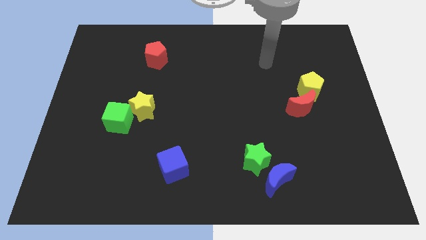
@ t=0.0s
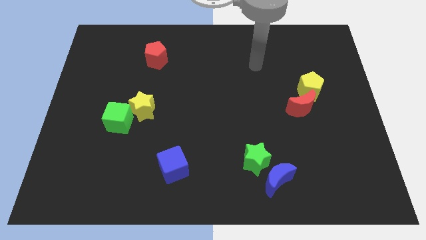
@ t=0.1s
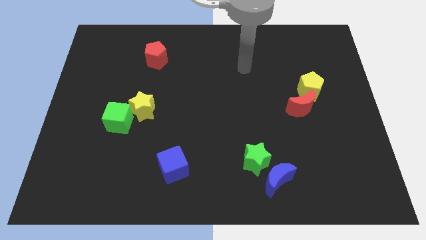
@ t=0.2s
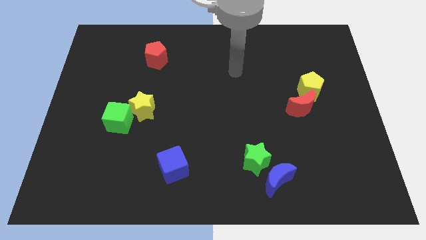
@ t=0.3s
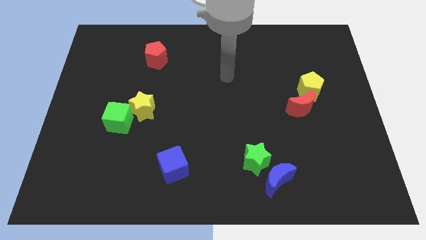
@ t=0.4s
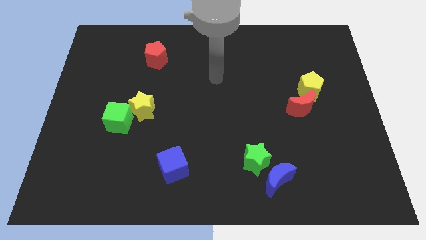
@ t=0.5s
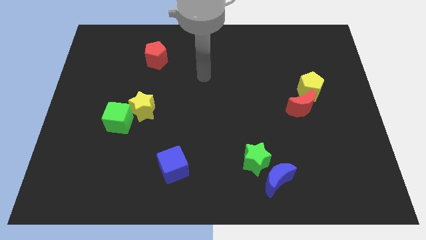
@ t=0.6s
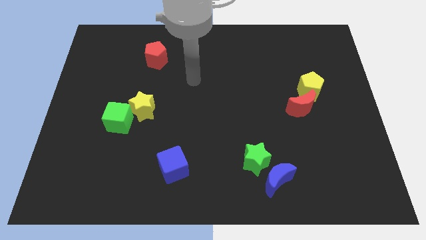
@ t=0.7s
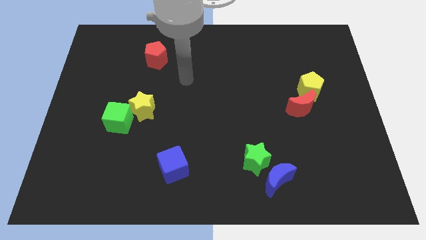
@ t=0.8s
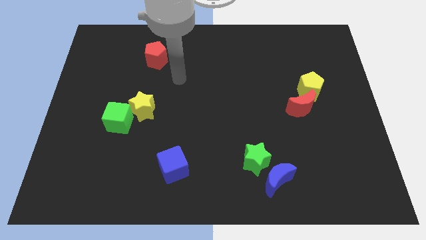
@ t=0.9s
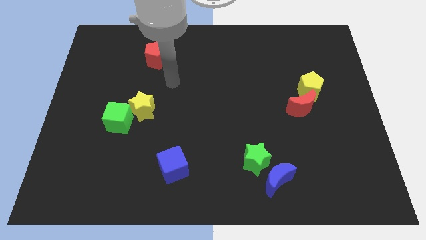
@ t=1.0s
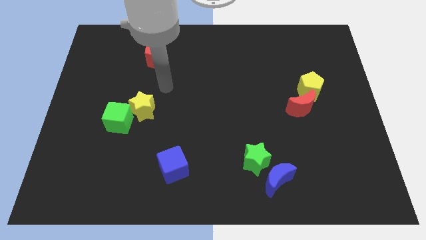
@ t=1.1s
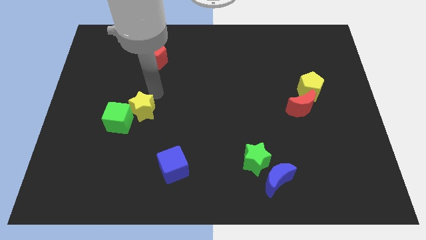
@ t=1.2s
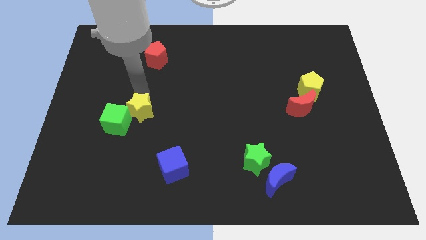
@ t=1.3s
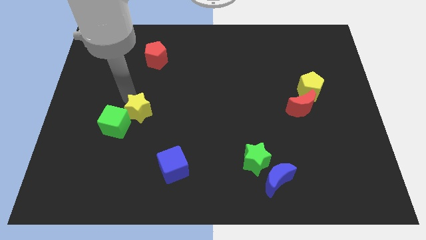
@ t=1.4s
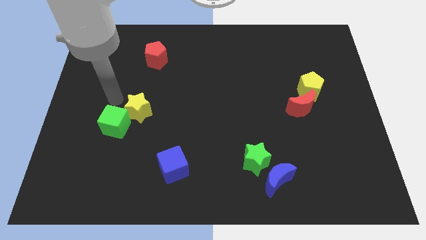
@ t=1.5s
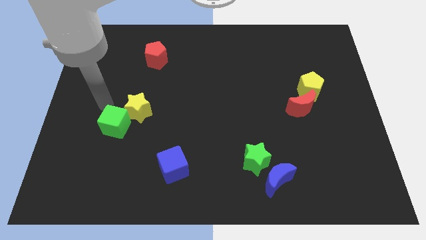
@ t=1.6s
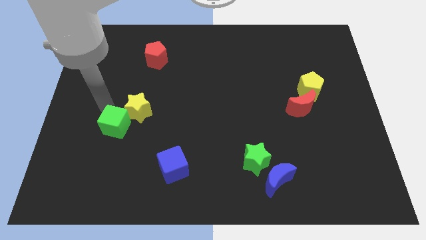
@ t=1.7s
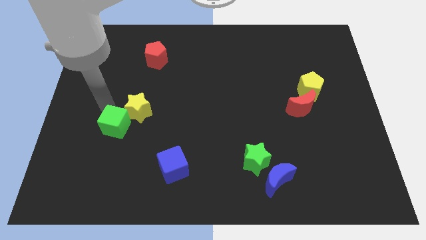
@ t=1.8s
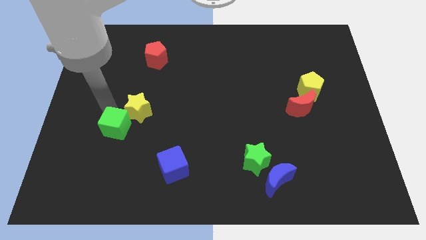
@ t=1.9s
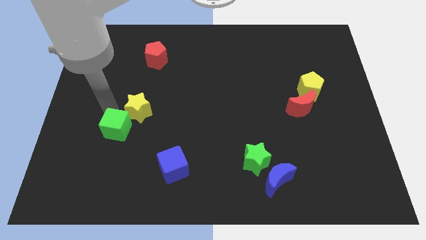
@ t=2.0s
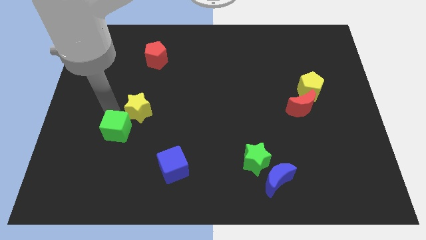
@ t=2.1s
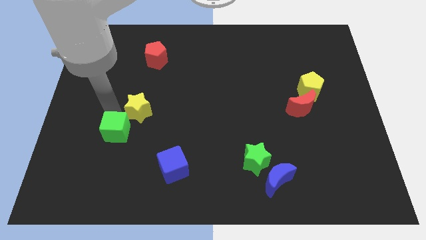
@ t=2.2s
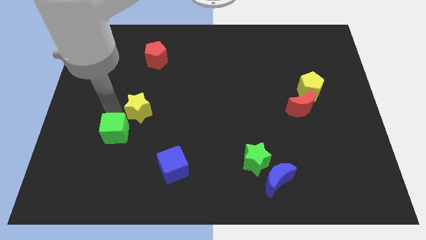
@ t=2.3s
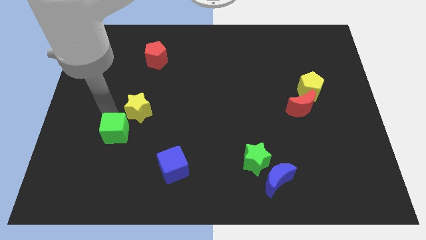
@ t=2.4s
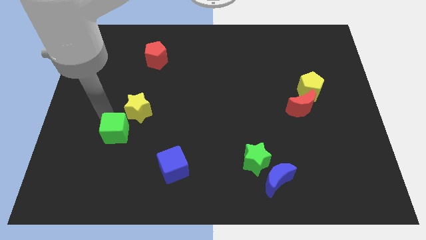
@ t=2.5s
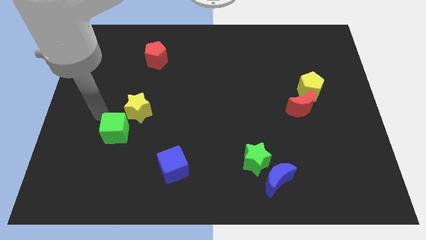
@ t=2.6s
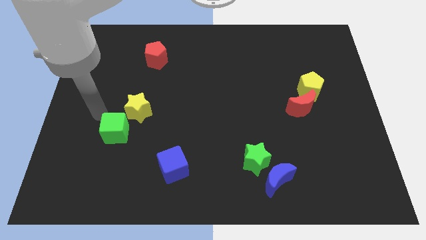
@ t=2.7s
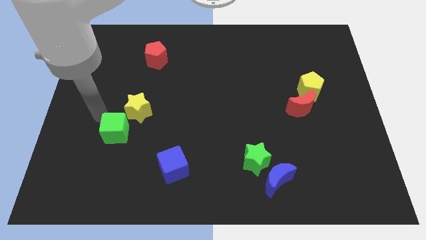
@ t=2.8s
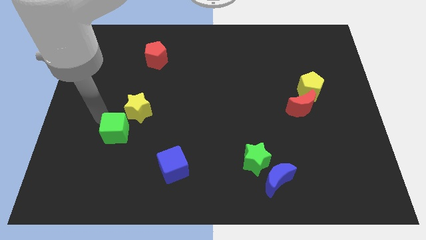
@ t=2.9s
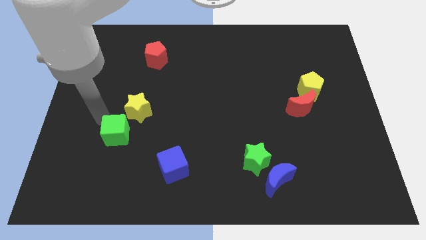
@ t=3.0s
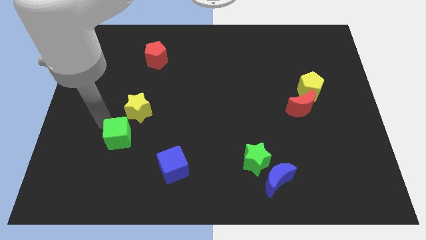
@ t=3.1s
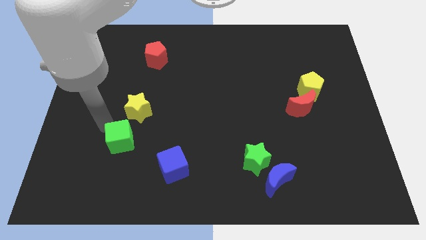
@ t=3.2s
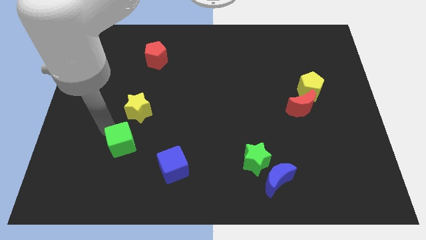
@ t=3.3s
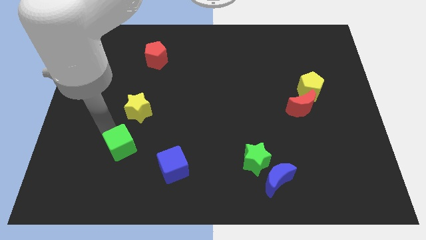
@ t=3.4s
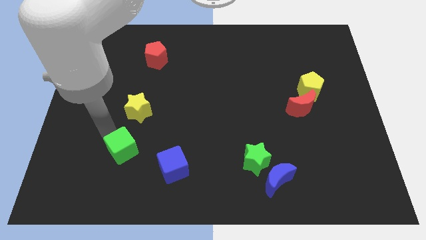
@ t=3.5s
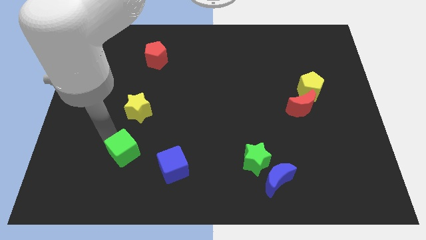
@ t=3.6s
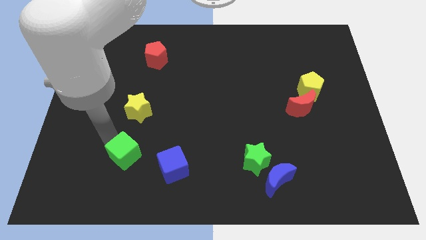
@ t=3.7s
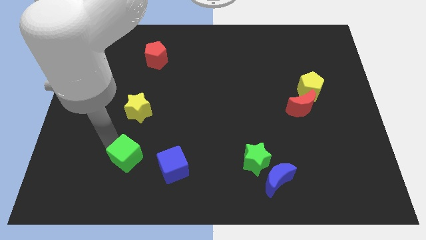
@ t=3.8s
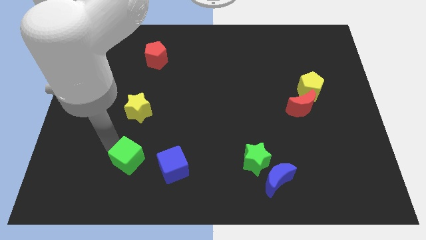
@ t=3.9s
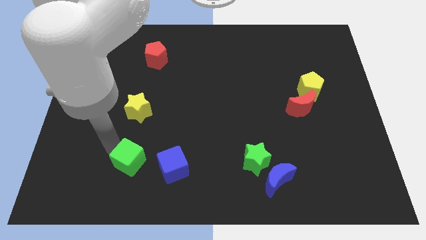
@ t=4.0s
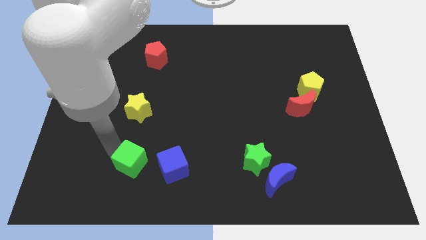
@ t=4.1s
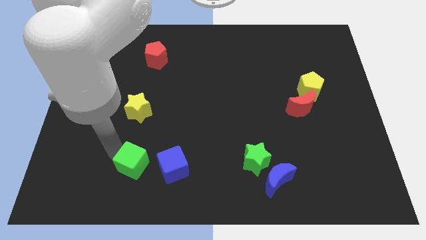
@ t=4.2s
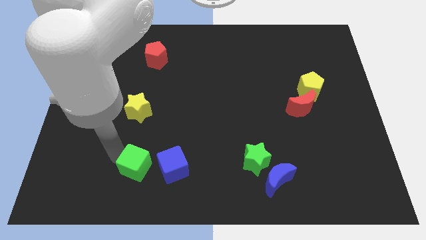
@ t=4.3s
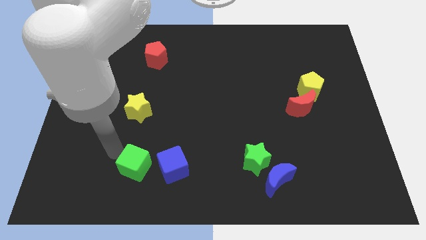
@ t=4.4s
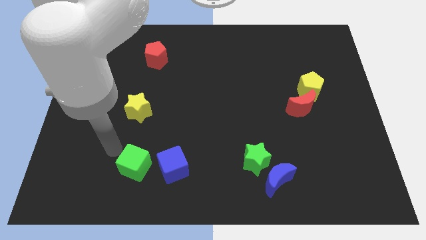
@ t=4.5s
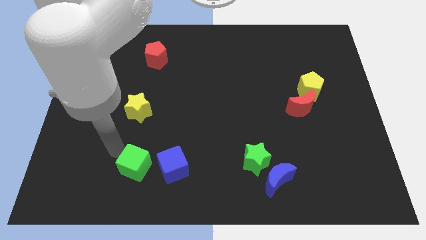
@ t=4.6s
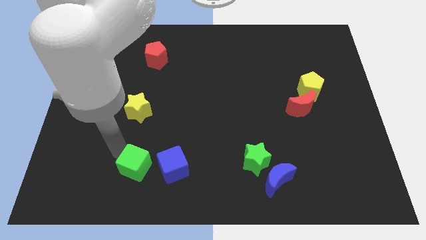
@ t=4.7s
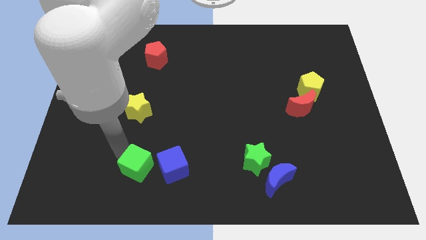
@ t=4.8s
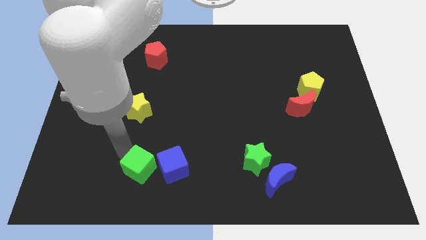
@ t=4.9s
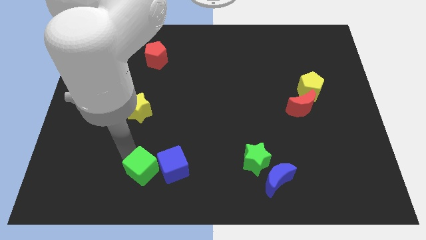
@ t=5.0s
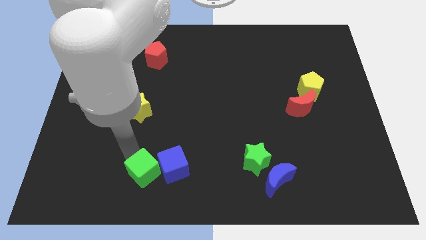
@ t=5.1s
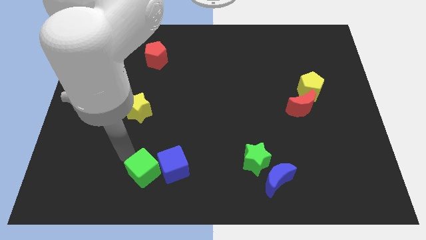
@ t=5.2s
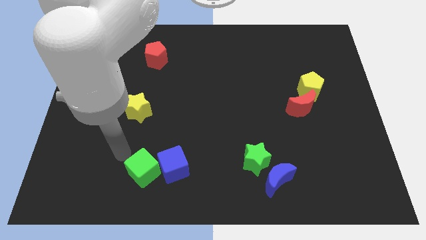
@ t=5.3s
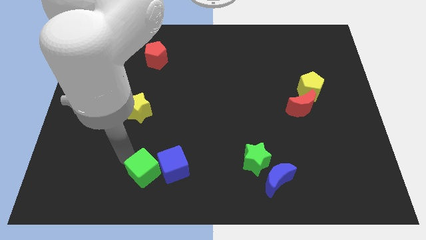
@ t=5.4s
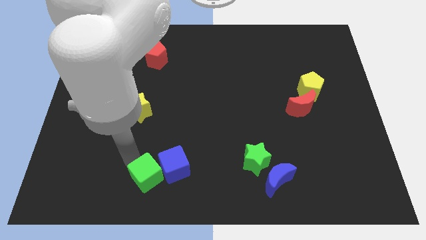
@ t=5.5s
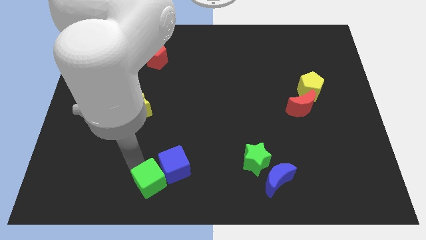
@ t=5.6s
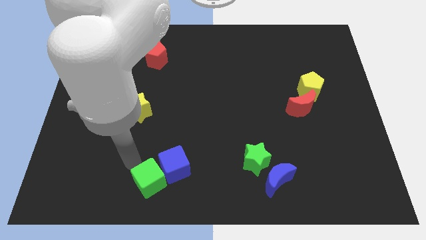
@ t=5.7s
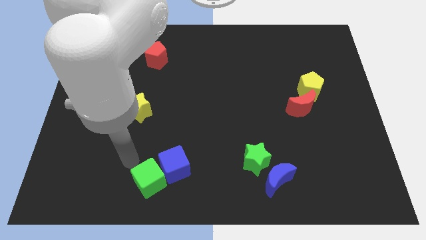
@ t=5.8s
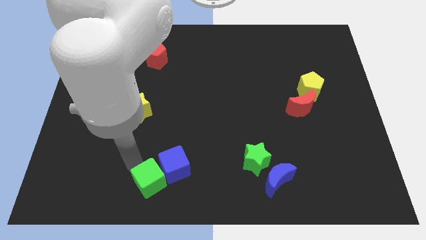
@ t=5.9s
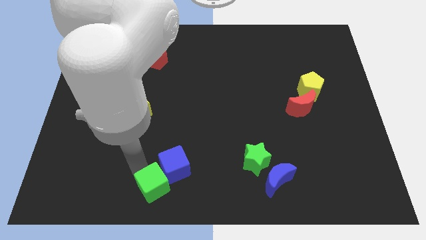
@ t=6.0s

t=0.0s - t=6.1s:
push the green cube to the bottom side

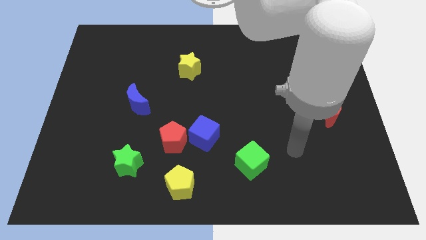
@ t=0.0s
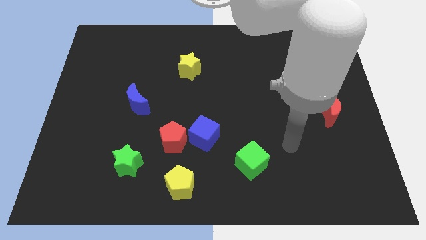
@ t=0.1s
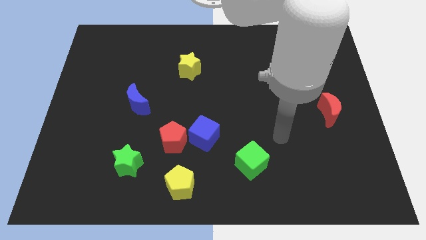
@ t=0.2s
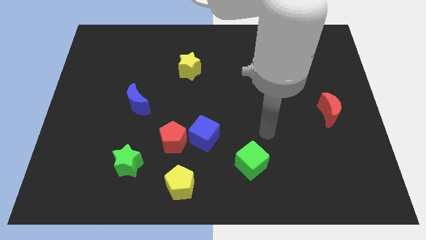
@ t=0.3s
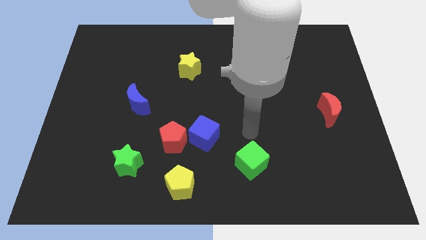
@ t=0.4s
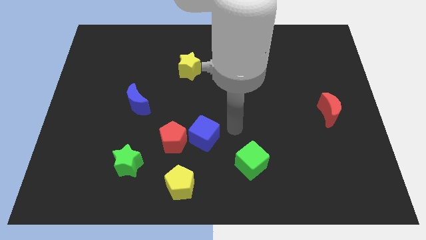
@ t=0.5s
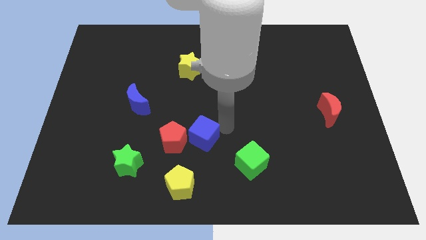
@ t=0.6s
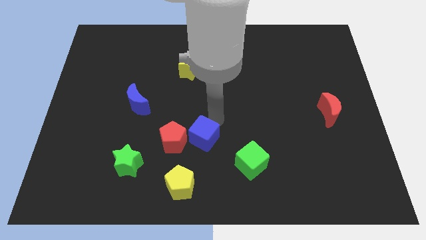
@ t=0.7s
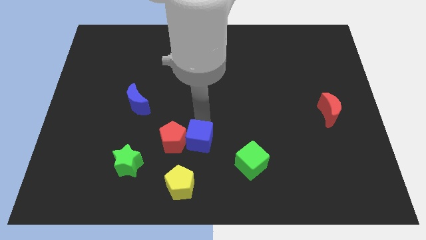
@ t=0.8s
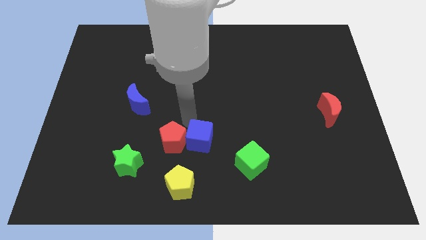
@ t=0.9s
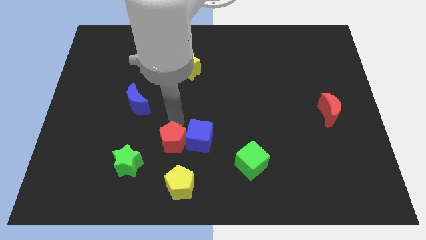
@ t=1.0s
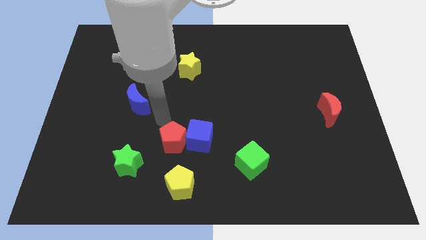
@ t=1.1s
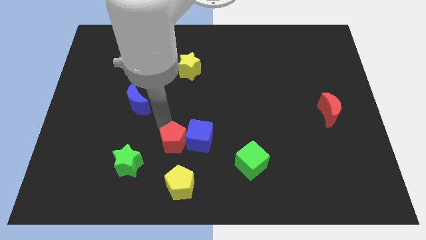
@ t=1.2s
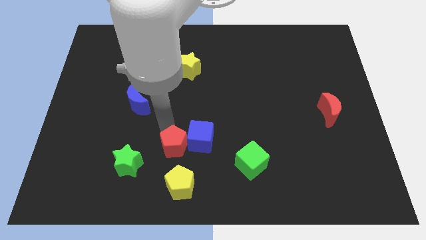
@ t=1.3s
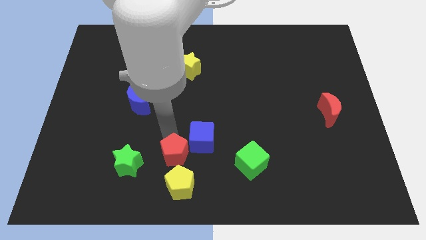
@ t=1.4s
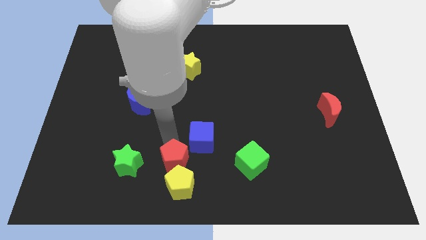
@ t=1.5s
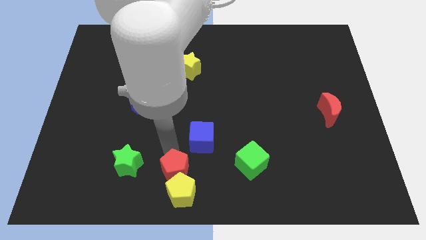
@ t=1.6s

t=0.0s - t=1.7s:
move the red pentagon to the bottom side

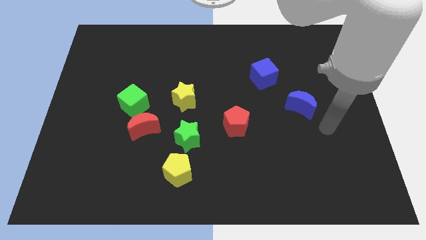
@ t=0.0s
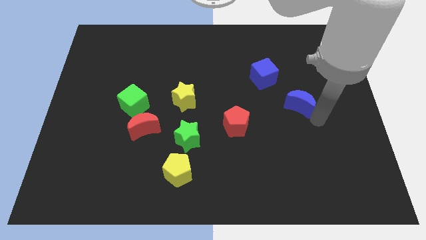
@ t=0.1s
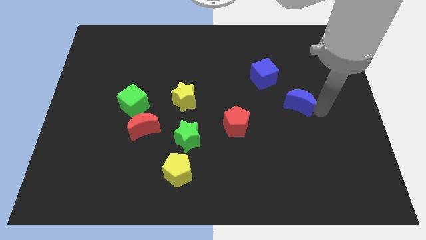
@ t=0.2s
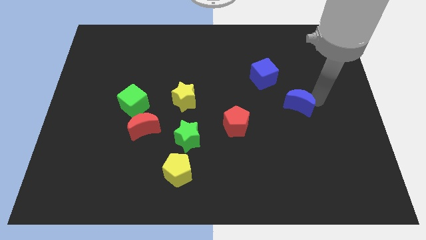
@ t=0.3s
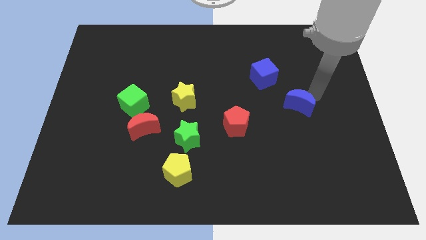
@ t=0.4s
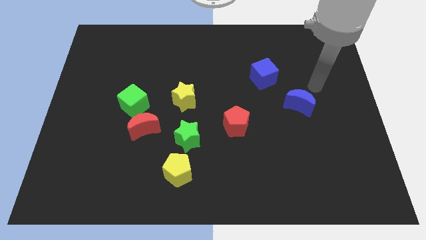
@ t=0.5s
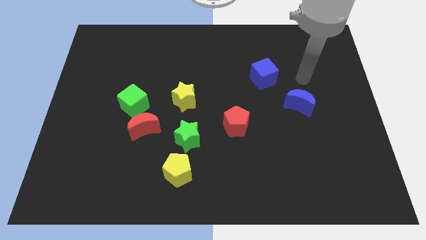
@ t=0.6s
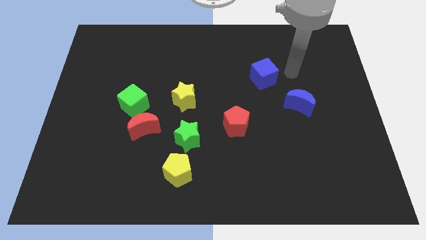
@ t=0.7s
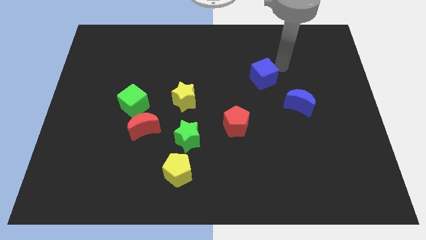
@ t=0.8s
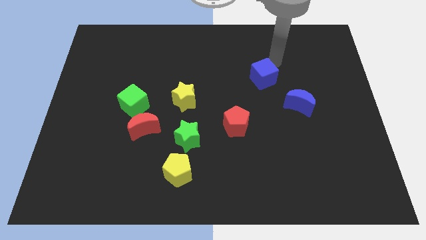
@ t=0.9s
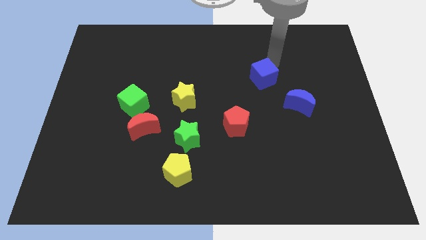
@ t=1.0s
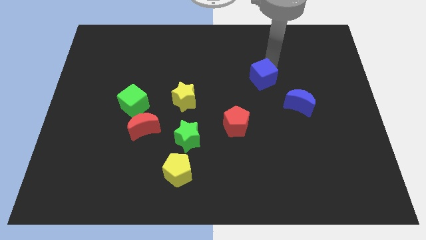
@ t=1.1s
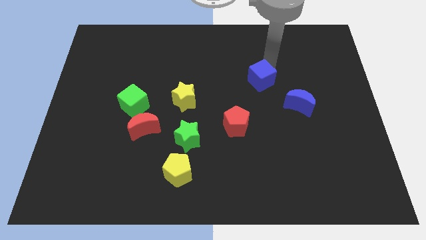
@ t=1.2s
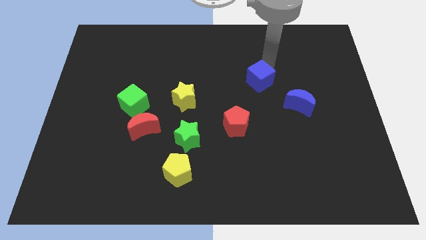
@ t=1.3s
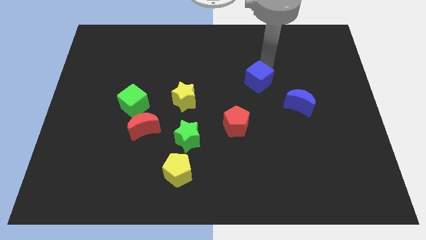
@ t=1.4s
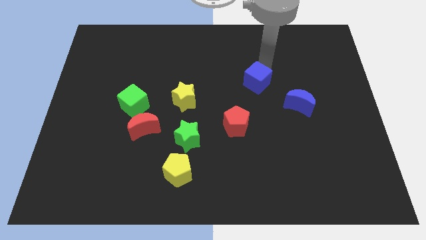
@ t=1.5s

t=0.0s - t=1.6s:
move the blue cube to the middle
